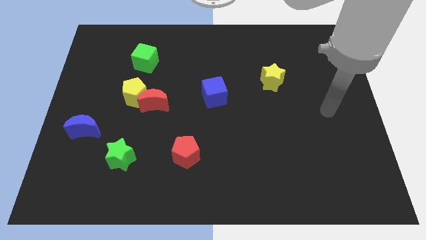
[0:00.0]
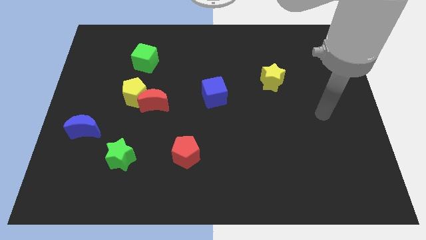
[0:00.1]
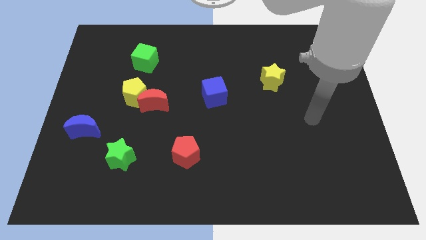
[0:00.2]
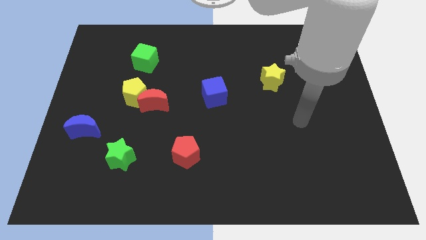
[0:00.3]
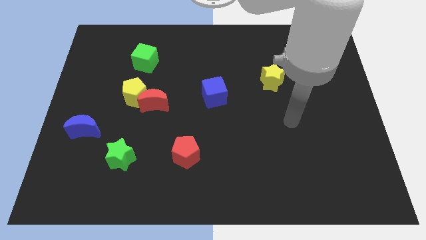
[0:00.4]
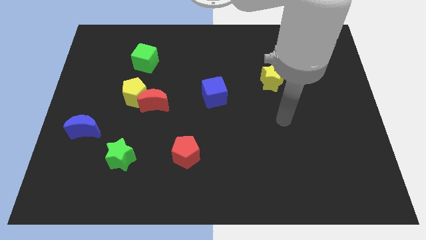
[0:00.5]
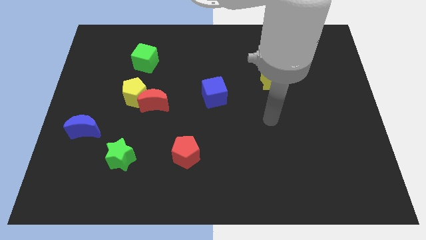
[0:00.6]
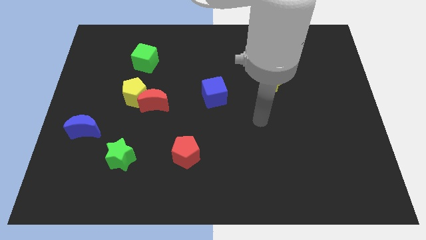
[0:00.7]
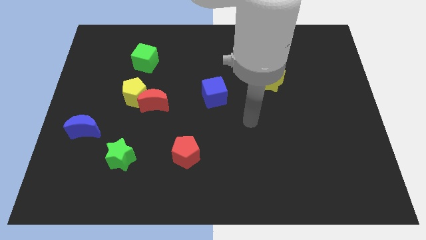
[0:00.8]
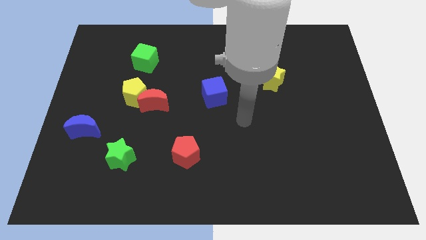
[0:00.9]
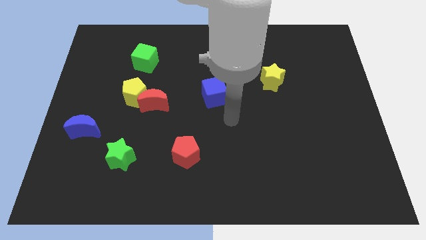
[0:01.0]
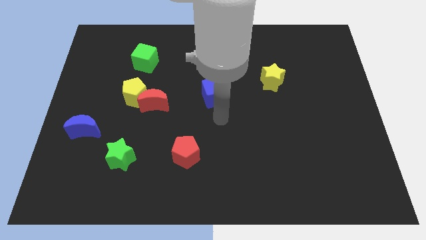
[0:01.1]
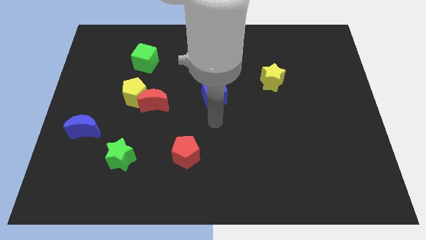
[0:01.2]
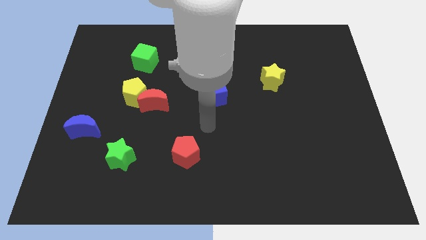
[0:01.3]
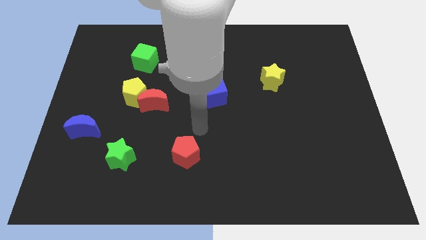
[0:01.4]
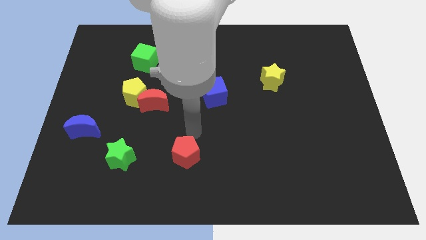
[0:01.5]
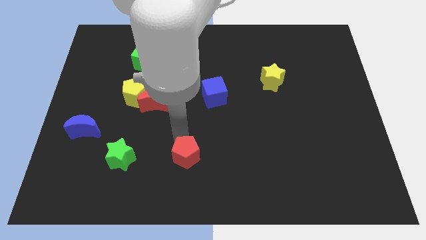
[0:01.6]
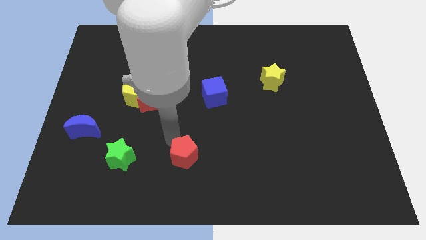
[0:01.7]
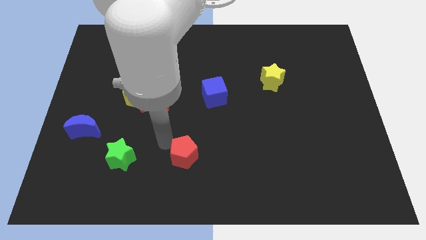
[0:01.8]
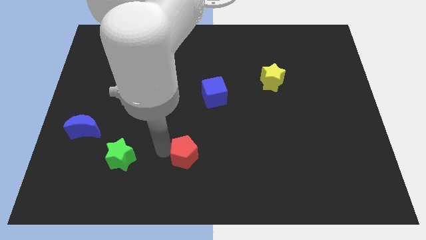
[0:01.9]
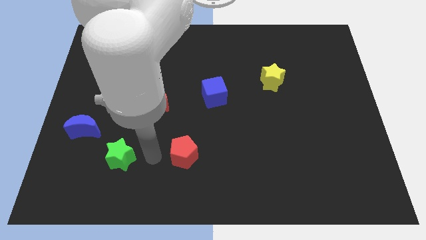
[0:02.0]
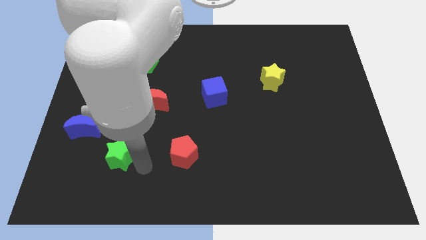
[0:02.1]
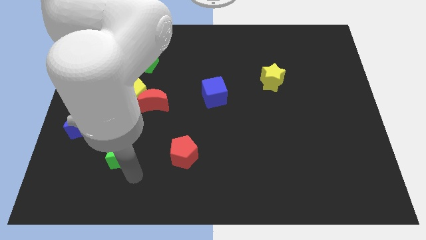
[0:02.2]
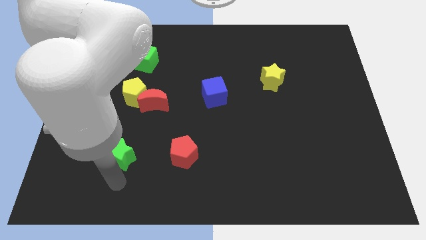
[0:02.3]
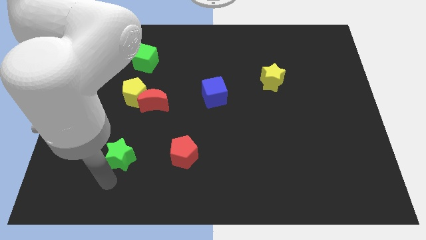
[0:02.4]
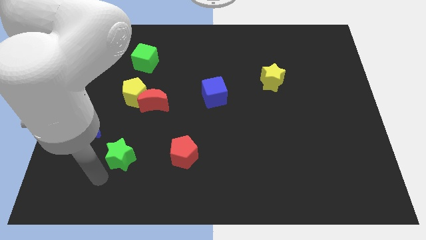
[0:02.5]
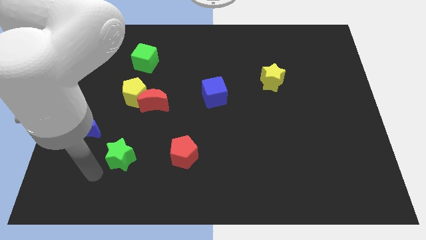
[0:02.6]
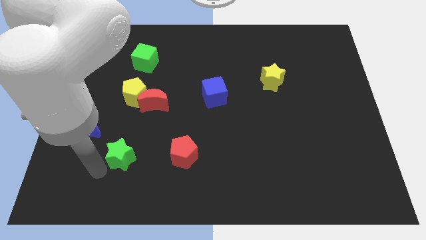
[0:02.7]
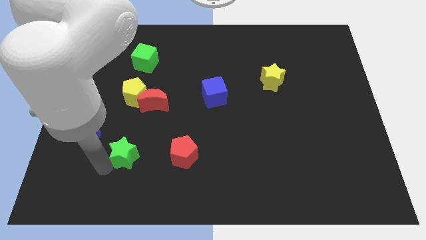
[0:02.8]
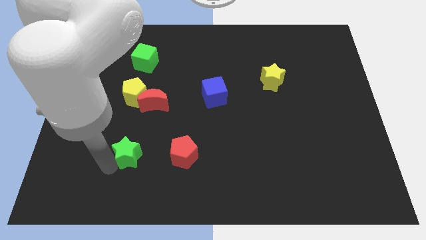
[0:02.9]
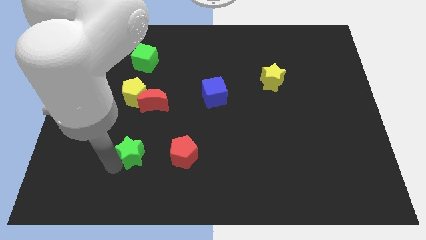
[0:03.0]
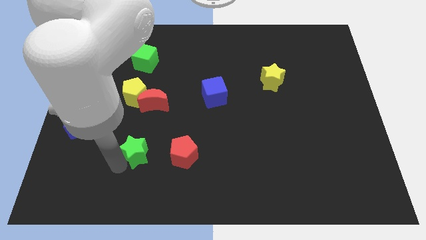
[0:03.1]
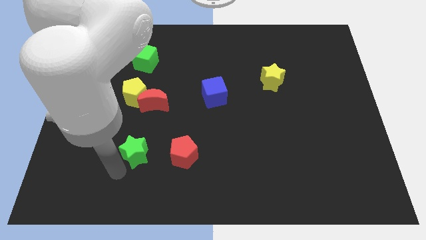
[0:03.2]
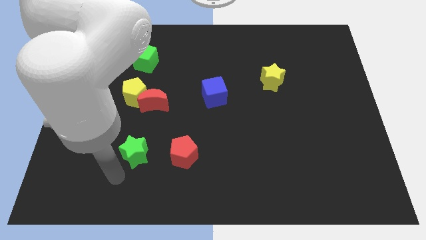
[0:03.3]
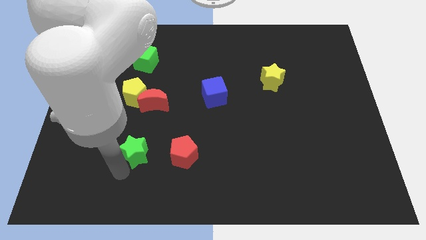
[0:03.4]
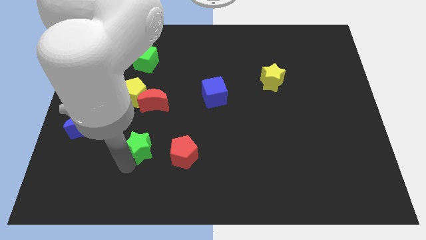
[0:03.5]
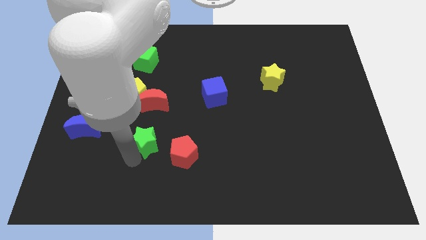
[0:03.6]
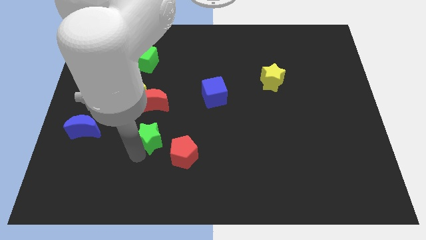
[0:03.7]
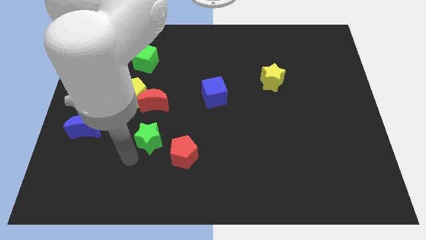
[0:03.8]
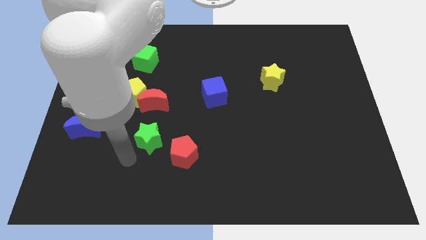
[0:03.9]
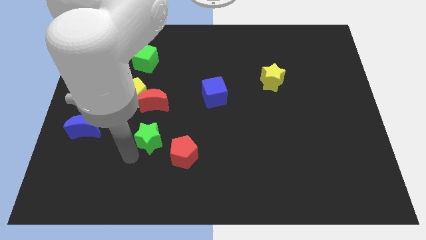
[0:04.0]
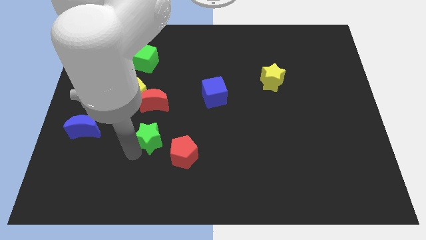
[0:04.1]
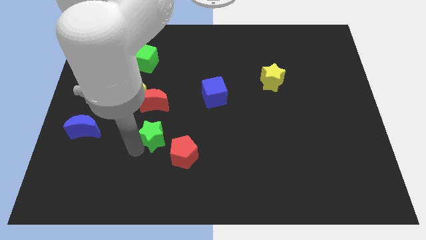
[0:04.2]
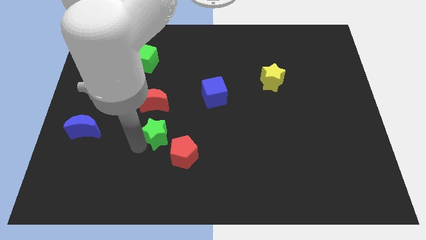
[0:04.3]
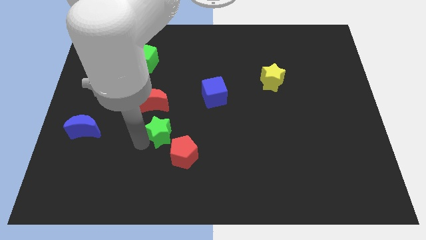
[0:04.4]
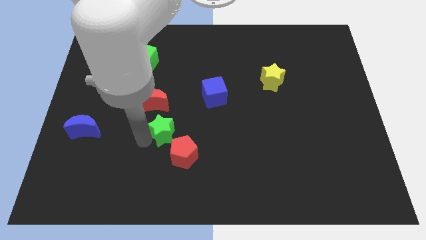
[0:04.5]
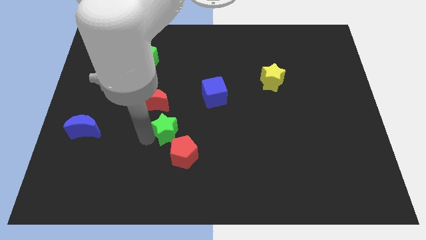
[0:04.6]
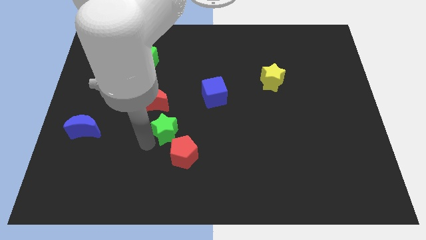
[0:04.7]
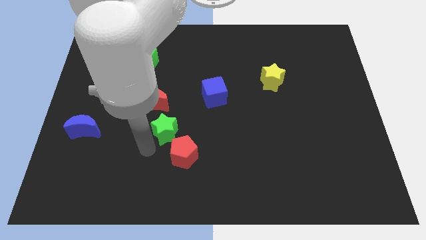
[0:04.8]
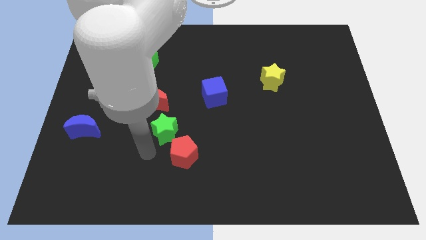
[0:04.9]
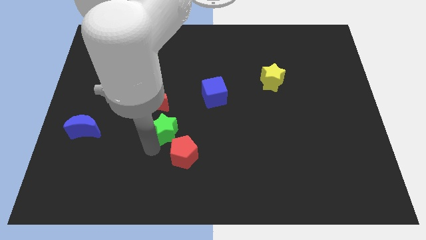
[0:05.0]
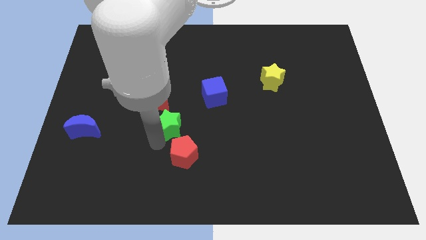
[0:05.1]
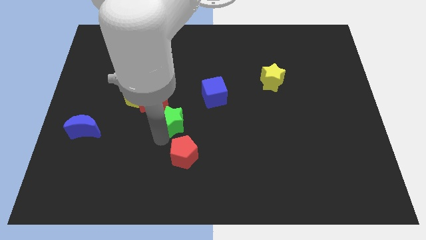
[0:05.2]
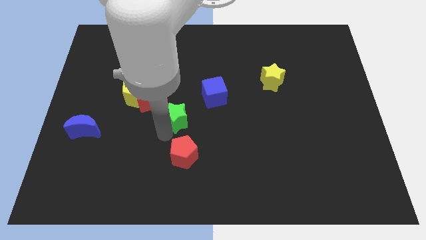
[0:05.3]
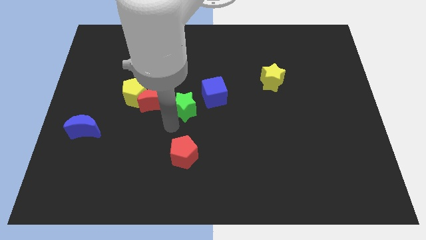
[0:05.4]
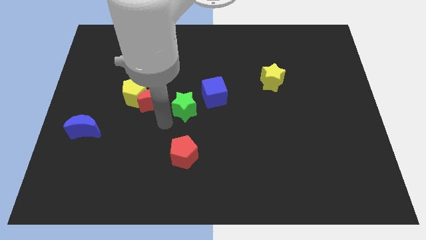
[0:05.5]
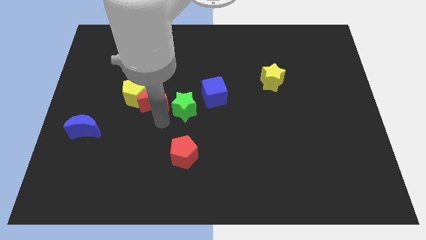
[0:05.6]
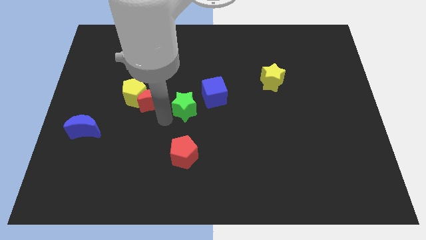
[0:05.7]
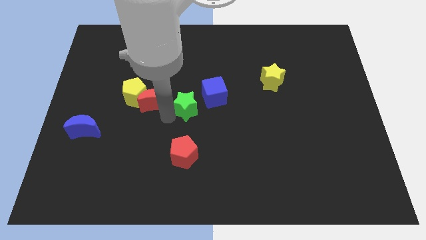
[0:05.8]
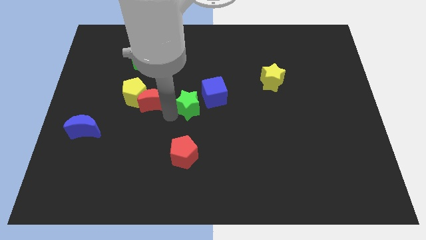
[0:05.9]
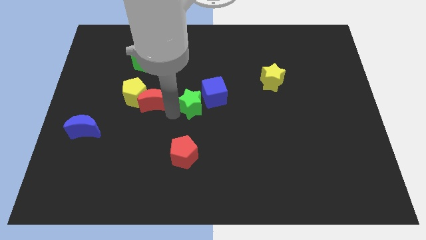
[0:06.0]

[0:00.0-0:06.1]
move the green star close to the blue cube

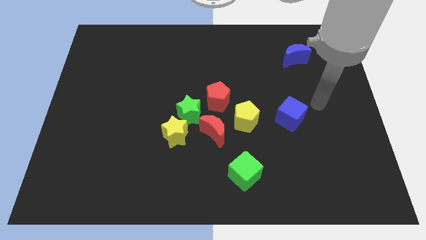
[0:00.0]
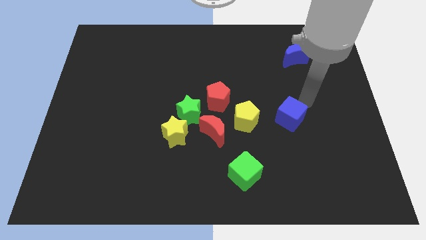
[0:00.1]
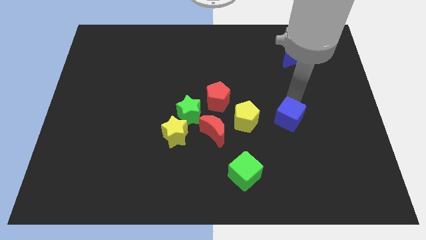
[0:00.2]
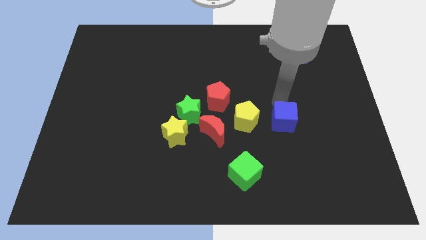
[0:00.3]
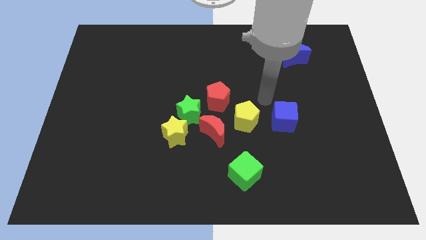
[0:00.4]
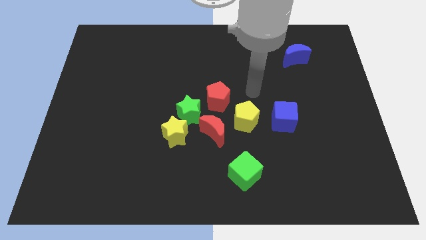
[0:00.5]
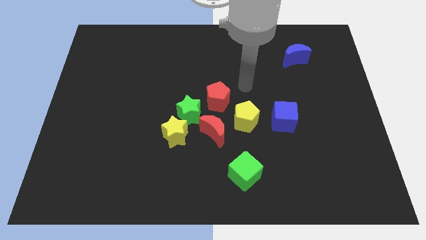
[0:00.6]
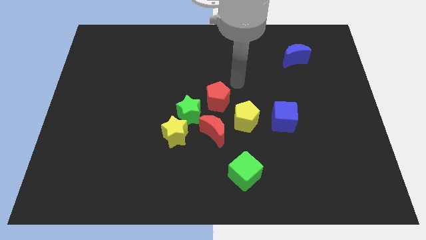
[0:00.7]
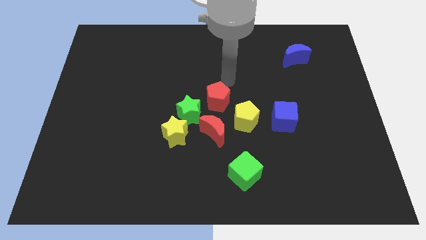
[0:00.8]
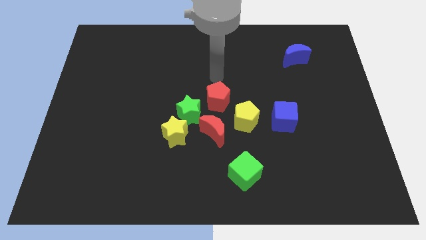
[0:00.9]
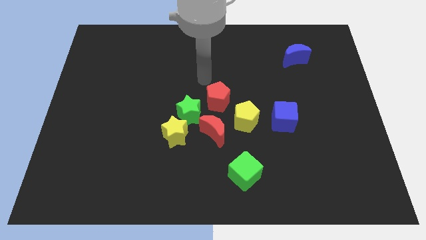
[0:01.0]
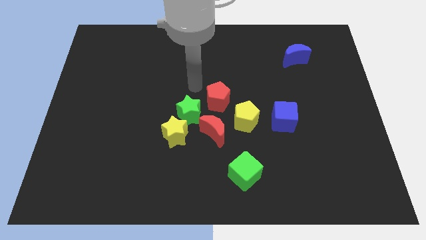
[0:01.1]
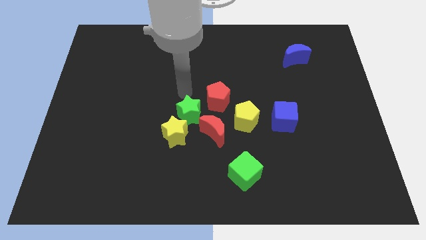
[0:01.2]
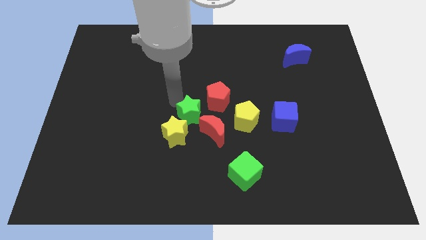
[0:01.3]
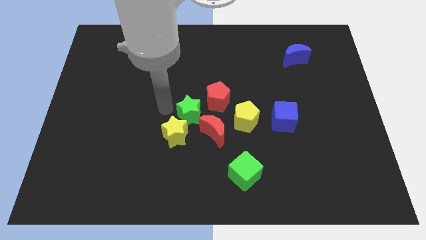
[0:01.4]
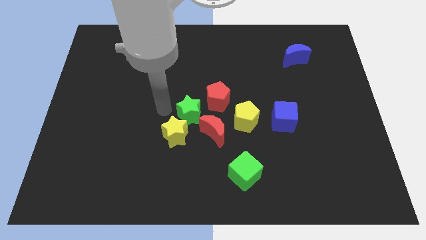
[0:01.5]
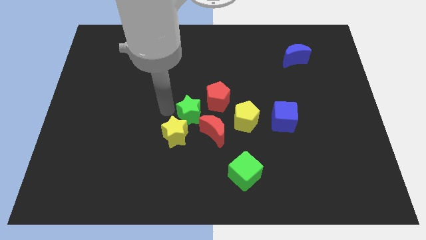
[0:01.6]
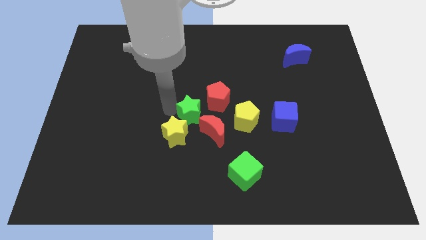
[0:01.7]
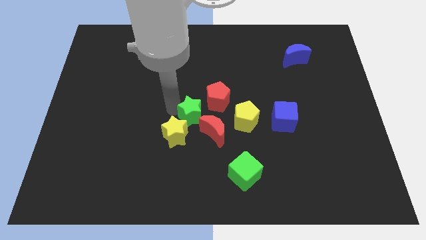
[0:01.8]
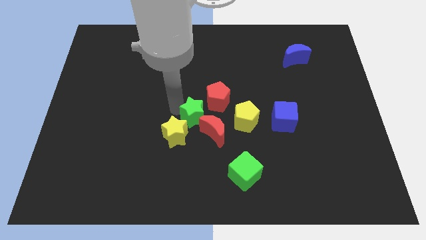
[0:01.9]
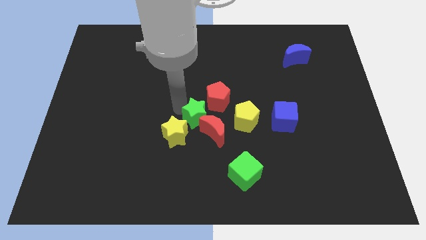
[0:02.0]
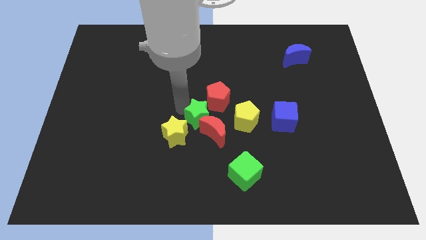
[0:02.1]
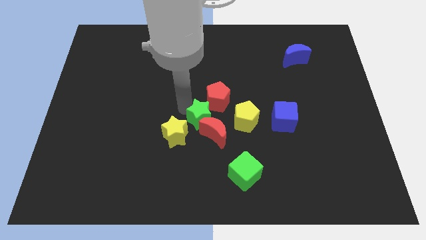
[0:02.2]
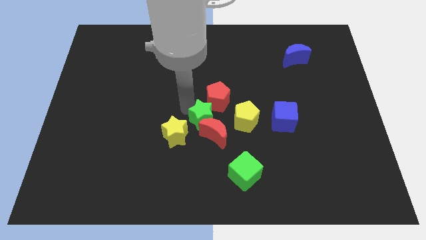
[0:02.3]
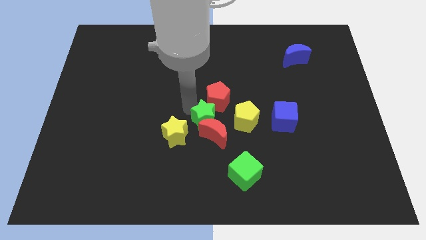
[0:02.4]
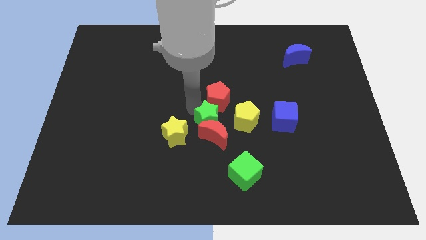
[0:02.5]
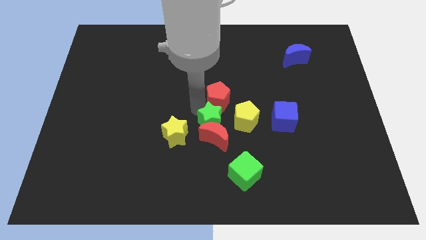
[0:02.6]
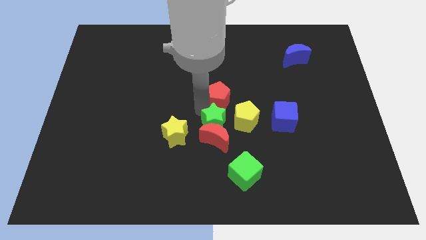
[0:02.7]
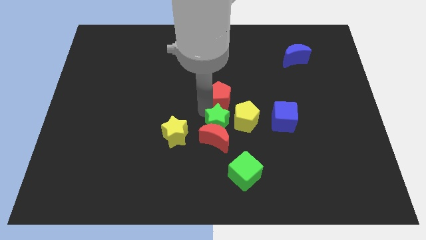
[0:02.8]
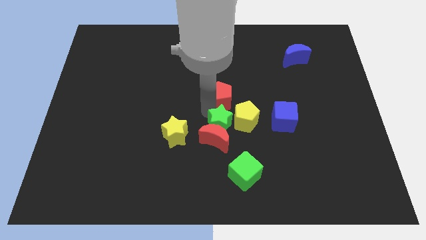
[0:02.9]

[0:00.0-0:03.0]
push the green star close to the yellow pentagon
